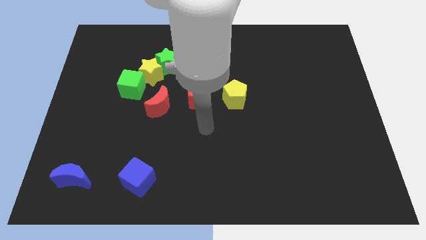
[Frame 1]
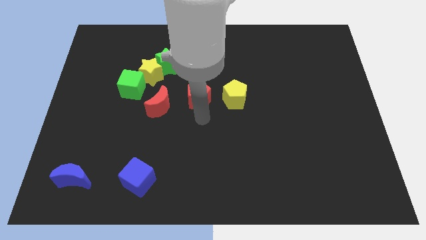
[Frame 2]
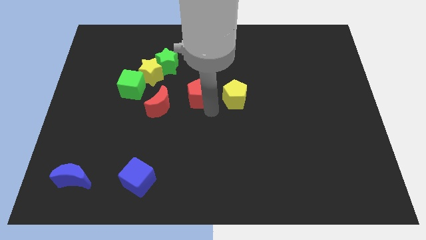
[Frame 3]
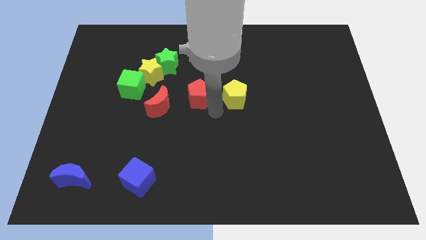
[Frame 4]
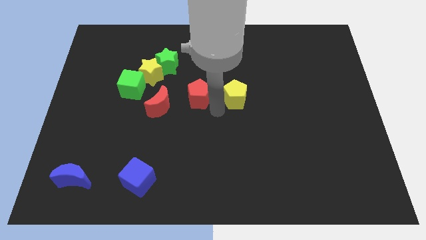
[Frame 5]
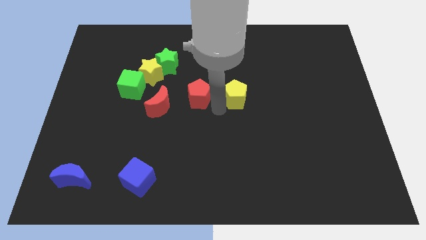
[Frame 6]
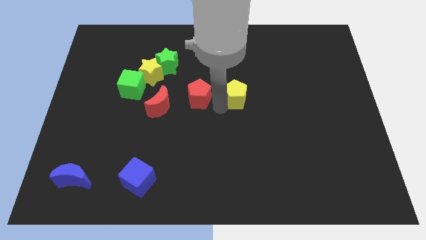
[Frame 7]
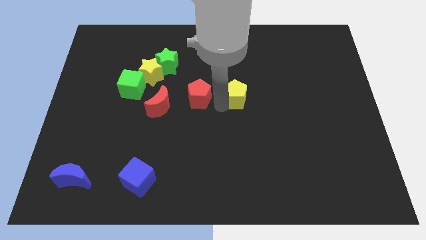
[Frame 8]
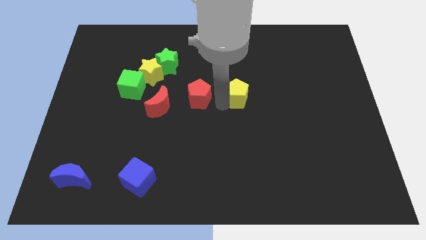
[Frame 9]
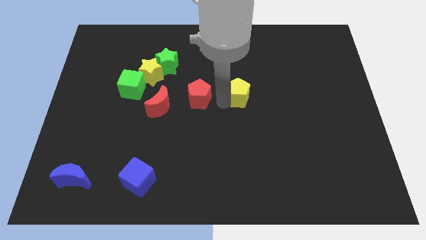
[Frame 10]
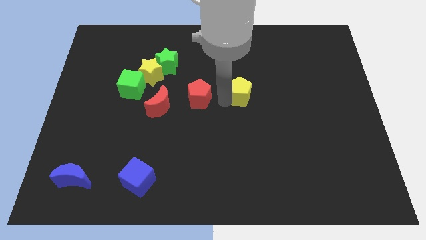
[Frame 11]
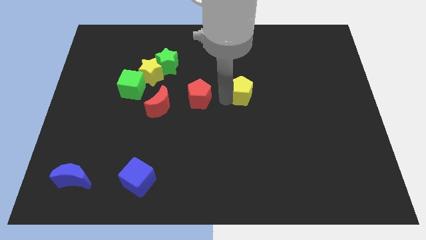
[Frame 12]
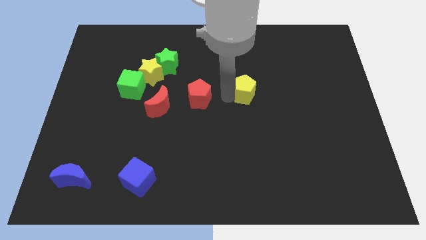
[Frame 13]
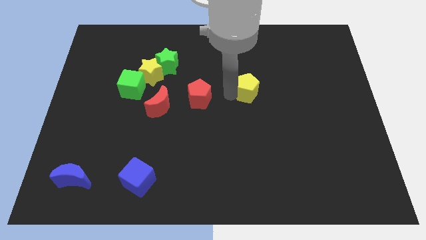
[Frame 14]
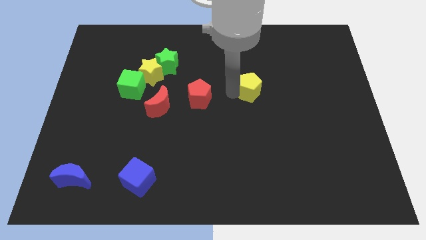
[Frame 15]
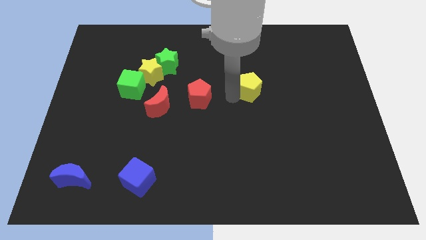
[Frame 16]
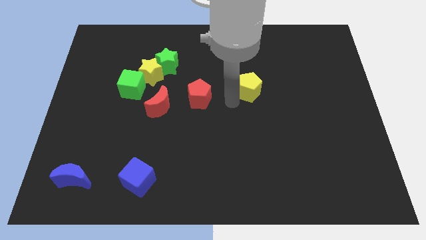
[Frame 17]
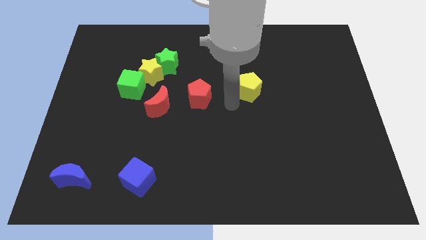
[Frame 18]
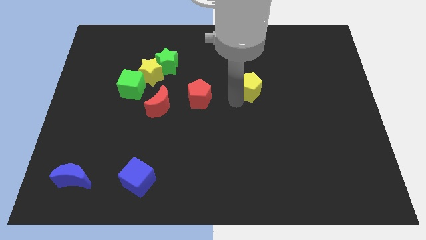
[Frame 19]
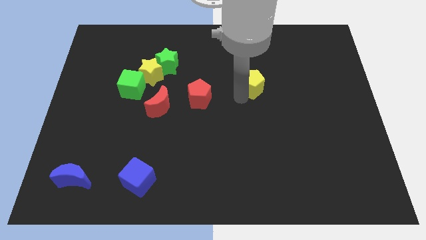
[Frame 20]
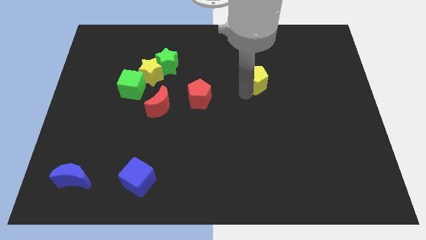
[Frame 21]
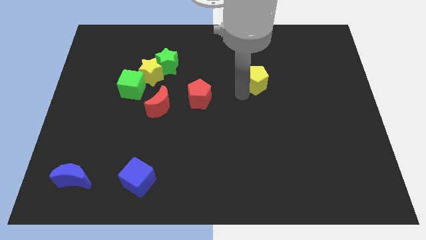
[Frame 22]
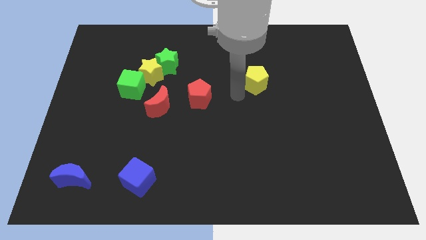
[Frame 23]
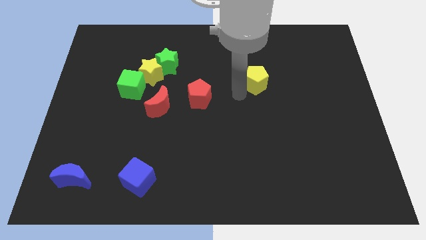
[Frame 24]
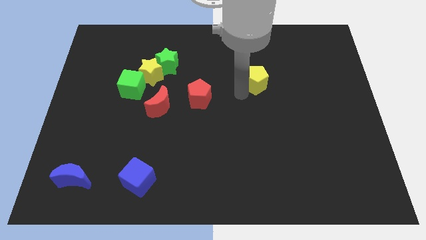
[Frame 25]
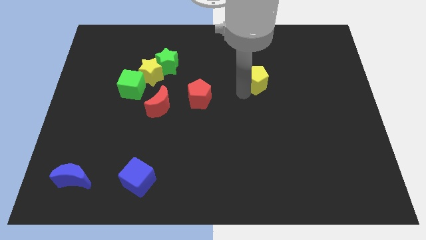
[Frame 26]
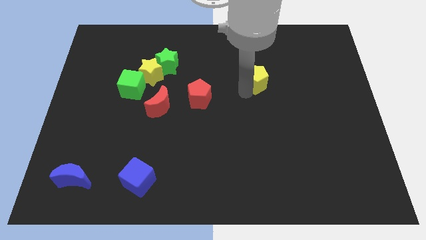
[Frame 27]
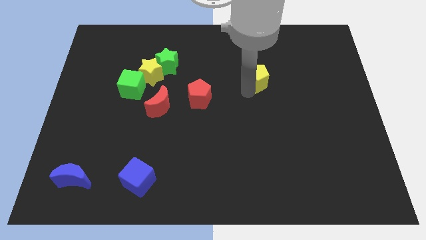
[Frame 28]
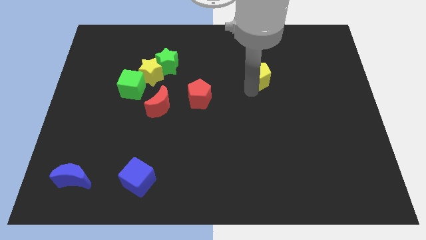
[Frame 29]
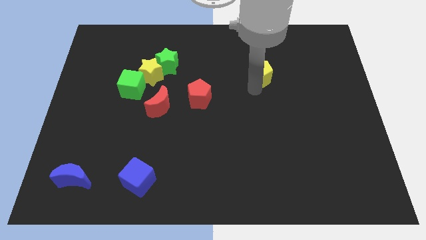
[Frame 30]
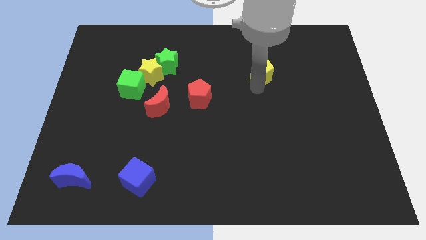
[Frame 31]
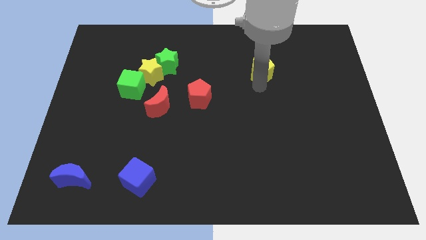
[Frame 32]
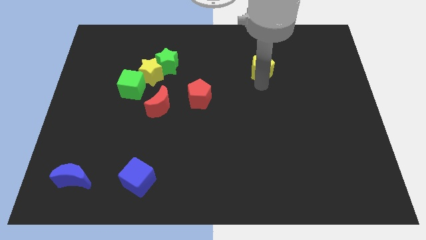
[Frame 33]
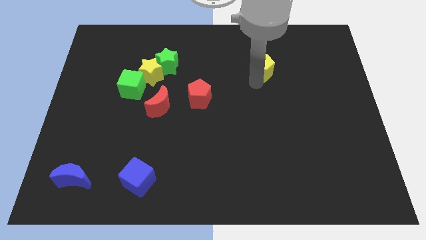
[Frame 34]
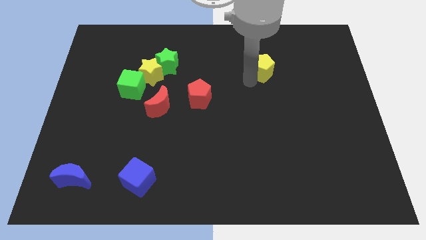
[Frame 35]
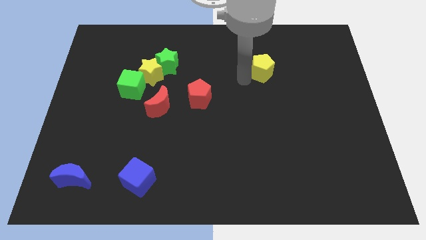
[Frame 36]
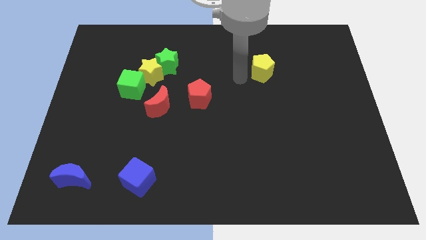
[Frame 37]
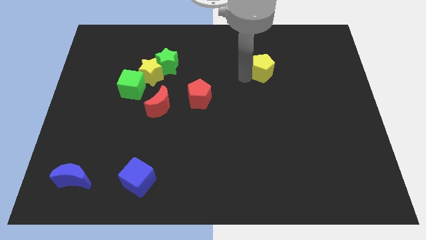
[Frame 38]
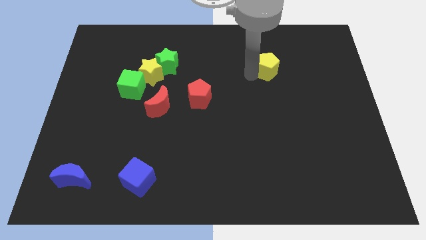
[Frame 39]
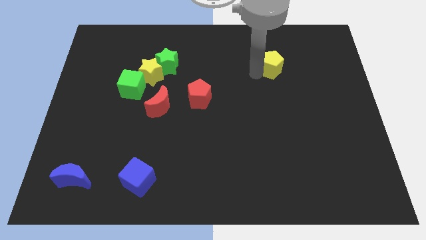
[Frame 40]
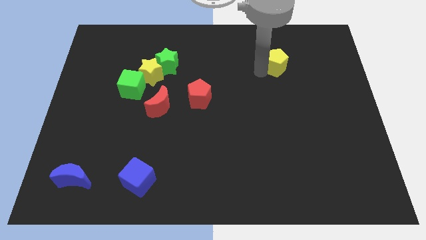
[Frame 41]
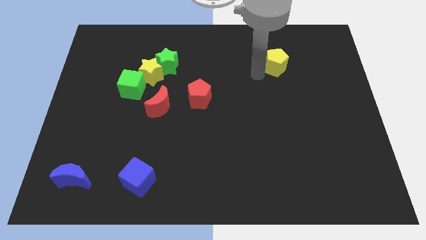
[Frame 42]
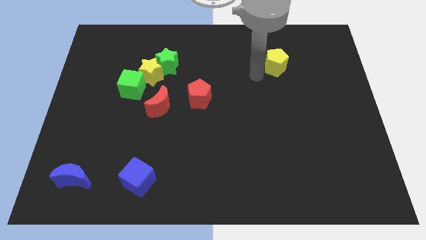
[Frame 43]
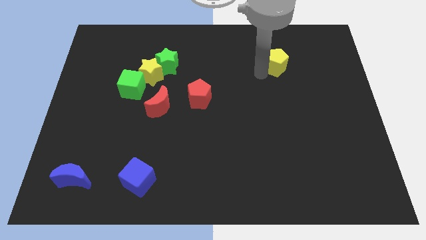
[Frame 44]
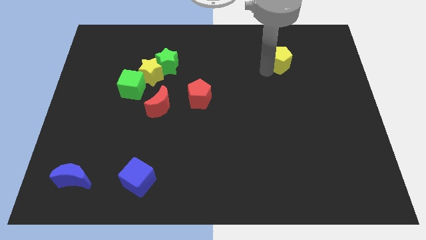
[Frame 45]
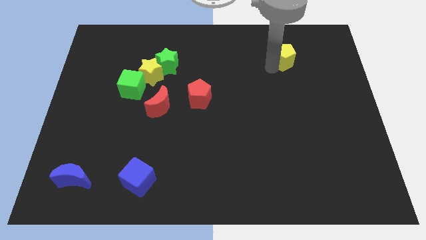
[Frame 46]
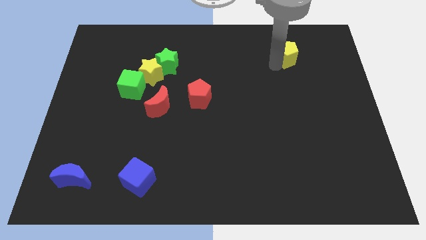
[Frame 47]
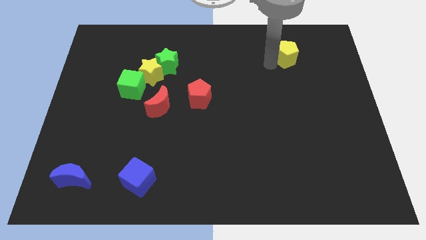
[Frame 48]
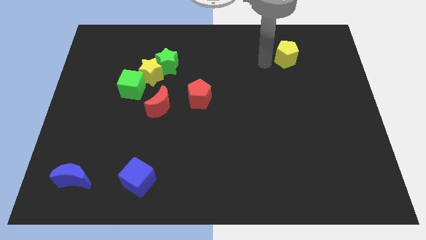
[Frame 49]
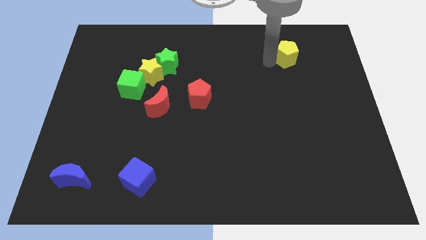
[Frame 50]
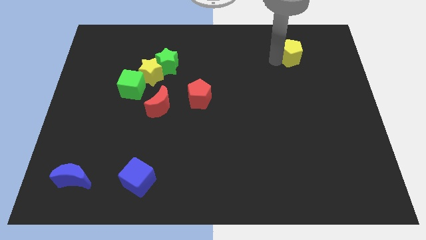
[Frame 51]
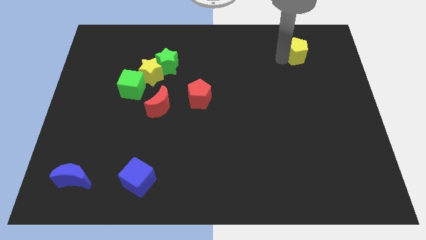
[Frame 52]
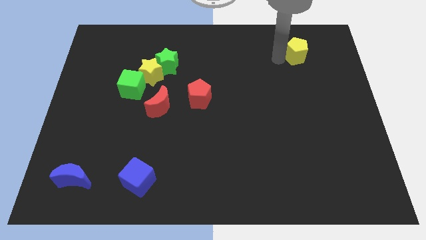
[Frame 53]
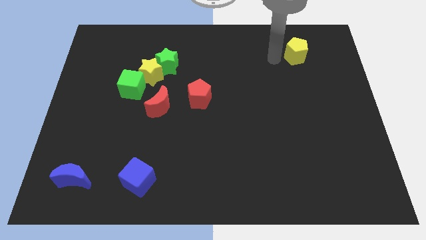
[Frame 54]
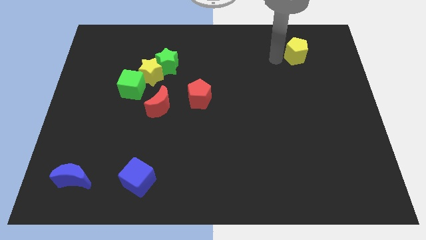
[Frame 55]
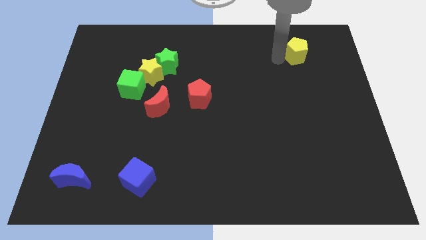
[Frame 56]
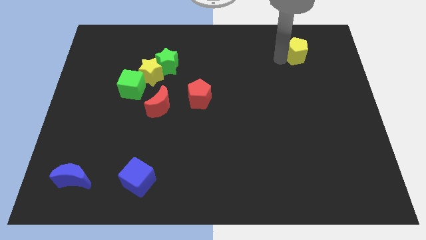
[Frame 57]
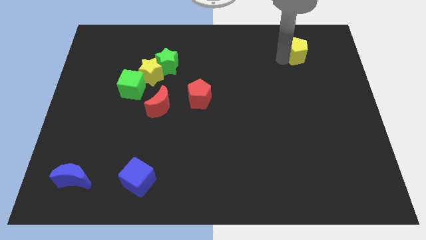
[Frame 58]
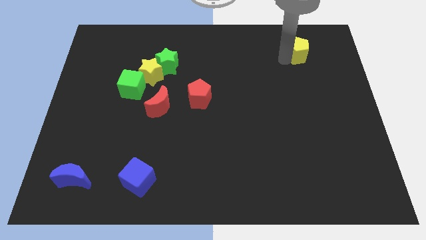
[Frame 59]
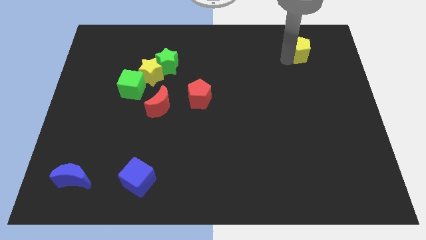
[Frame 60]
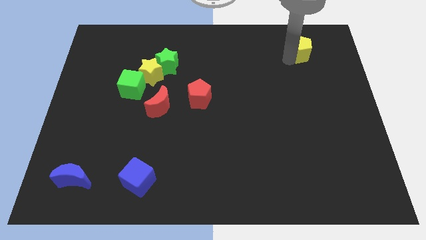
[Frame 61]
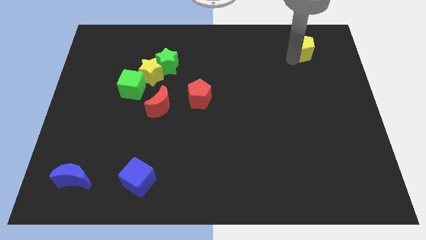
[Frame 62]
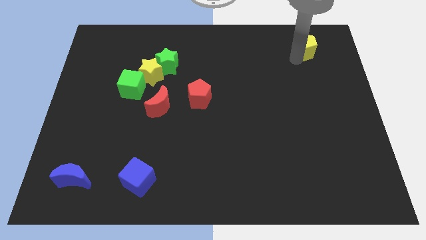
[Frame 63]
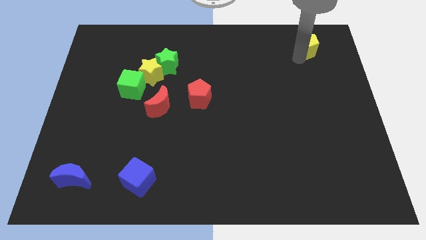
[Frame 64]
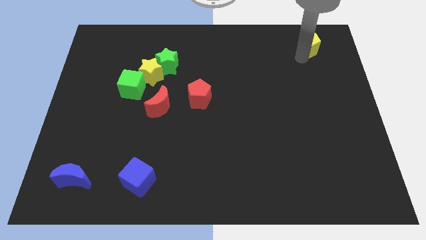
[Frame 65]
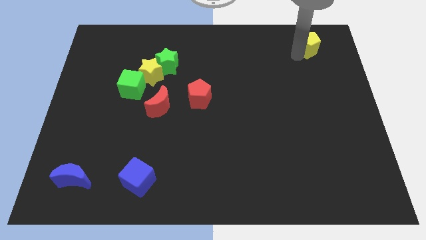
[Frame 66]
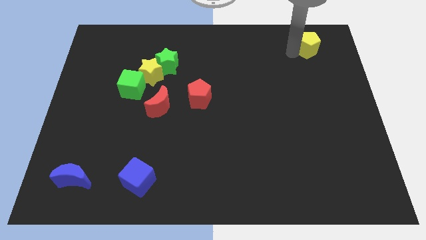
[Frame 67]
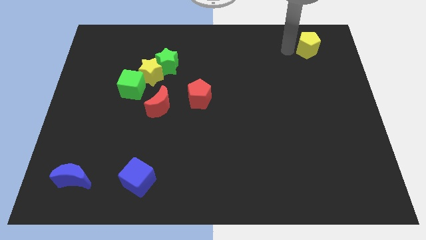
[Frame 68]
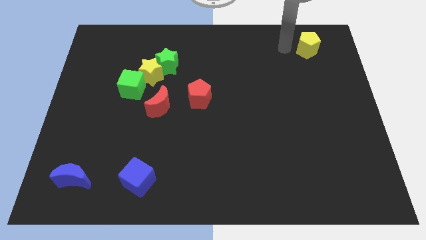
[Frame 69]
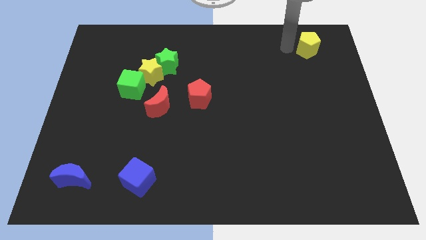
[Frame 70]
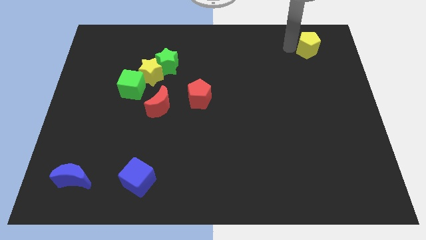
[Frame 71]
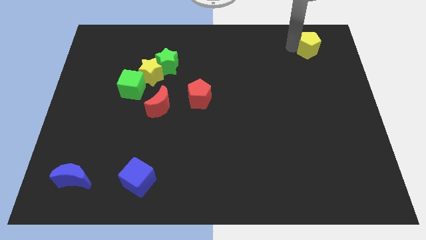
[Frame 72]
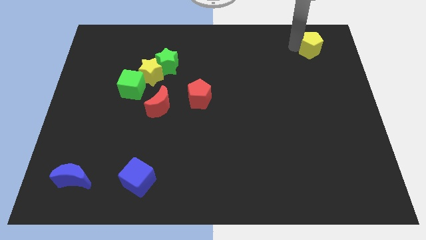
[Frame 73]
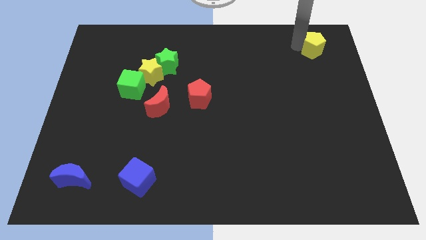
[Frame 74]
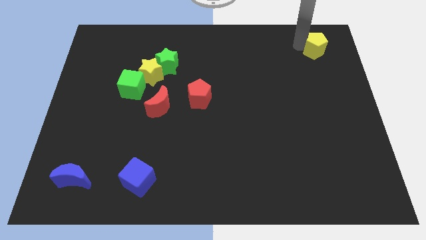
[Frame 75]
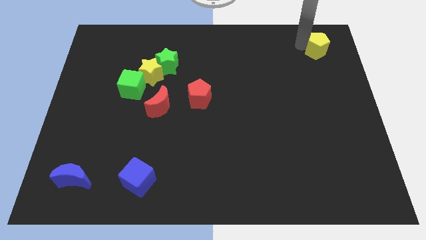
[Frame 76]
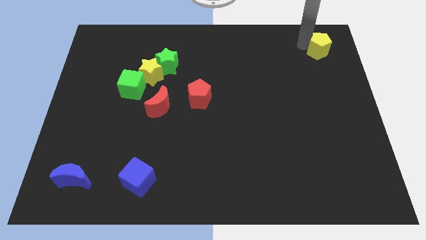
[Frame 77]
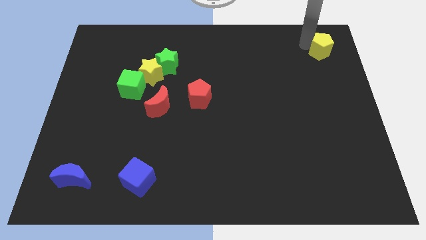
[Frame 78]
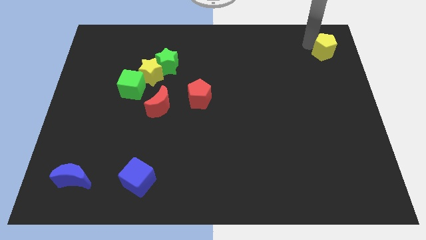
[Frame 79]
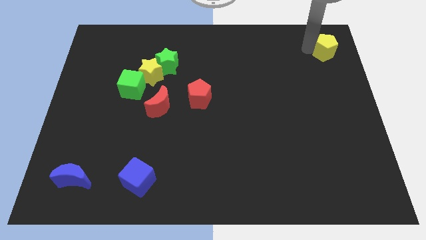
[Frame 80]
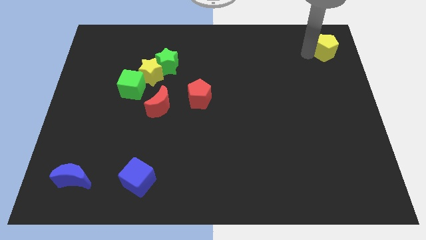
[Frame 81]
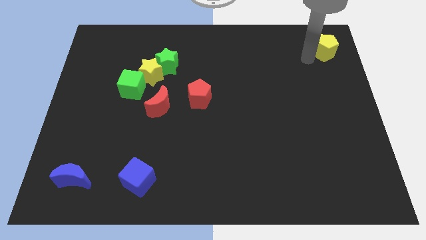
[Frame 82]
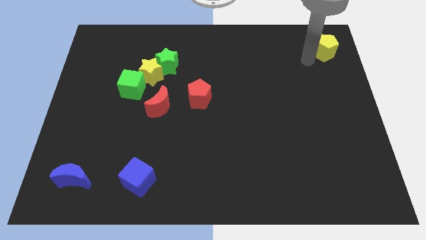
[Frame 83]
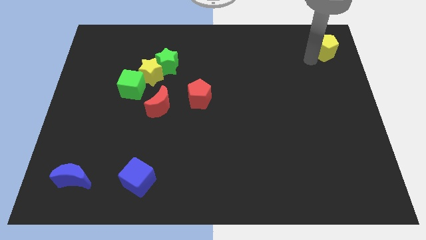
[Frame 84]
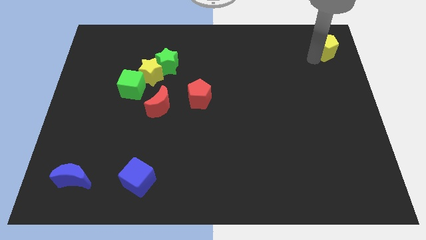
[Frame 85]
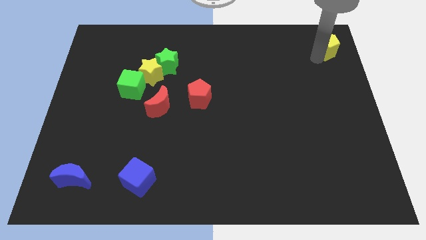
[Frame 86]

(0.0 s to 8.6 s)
push the yellow pentagon to the top right
